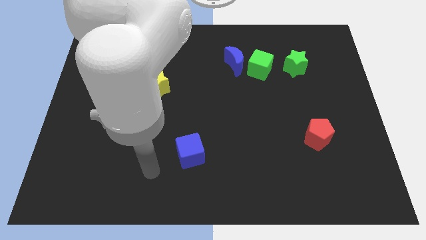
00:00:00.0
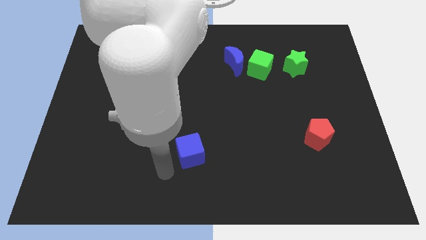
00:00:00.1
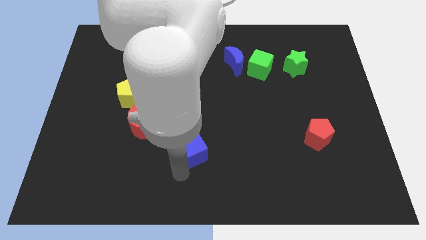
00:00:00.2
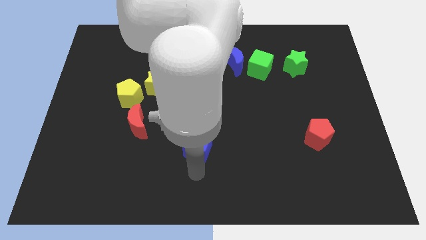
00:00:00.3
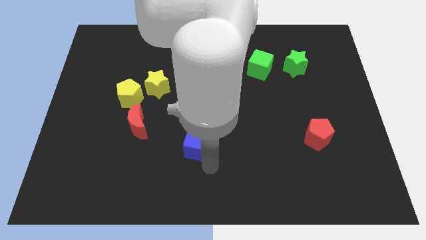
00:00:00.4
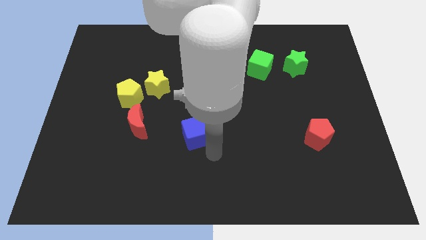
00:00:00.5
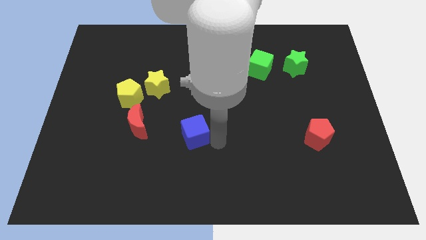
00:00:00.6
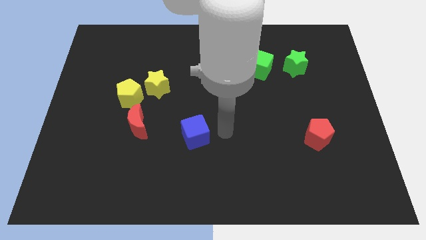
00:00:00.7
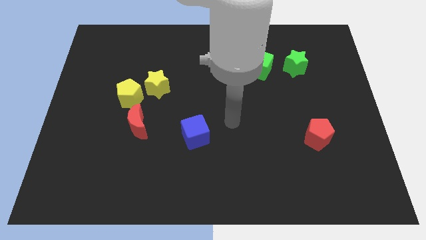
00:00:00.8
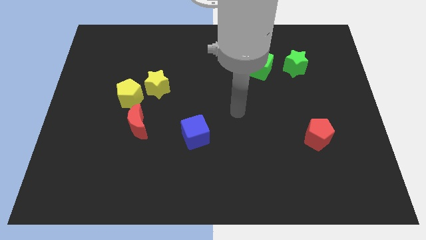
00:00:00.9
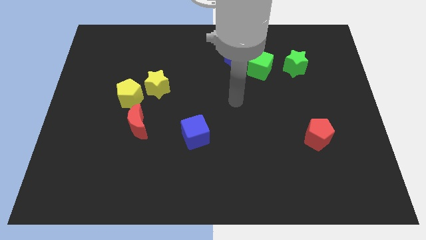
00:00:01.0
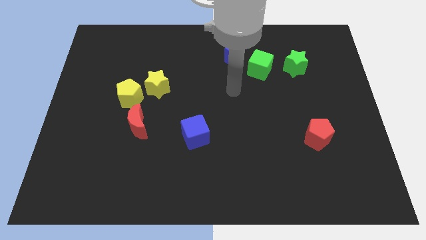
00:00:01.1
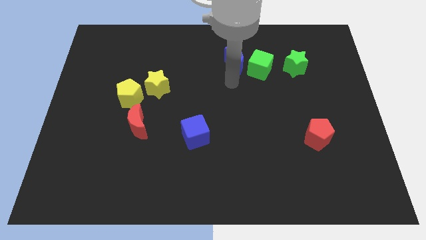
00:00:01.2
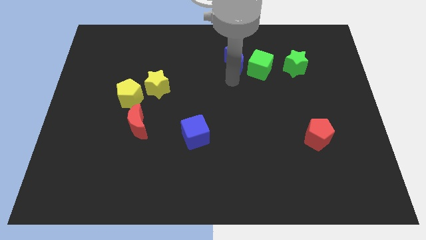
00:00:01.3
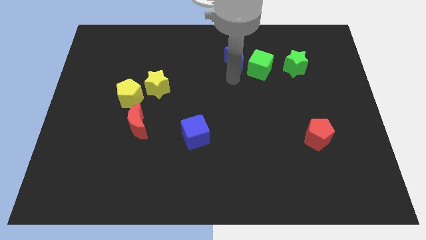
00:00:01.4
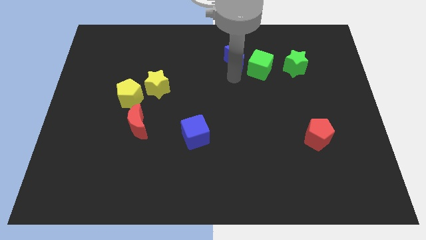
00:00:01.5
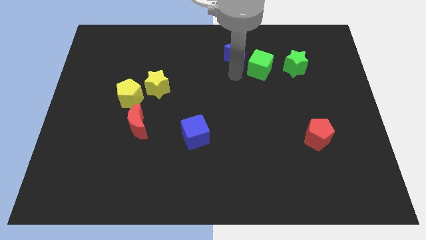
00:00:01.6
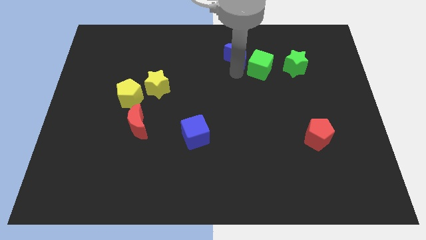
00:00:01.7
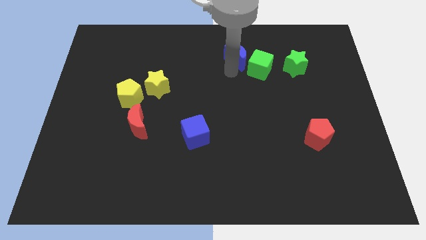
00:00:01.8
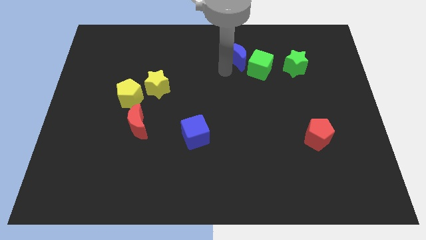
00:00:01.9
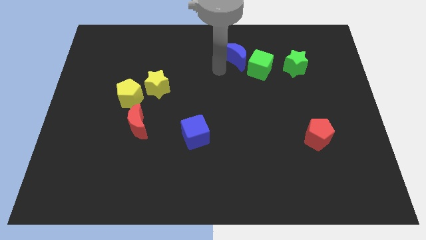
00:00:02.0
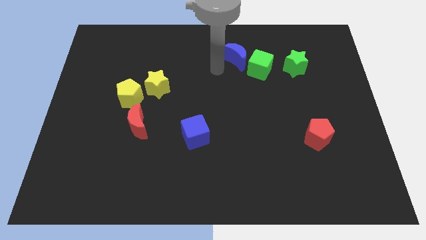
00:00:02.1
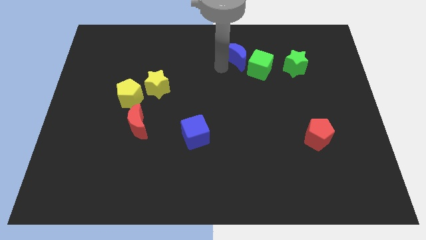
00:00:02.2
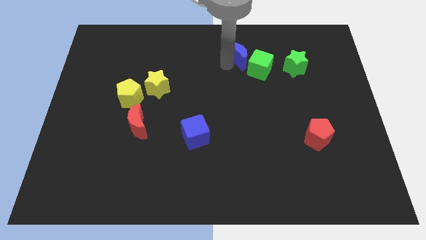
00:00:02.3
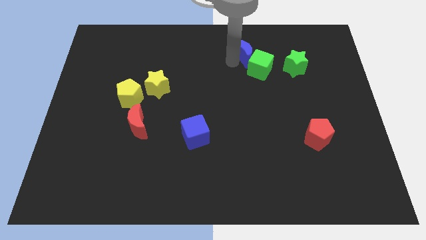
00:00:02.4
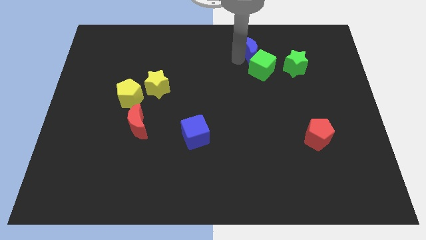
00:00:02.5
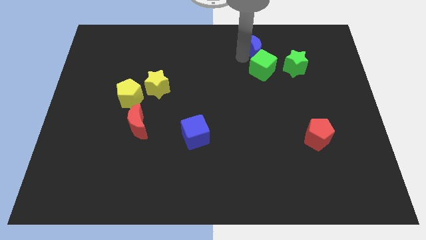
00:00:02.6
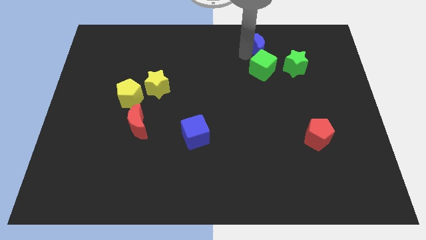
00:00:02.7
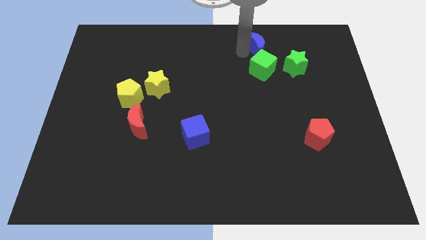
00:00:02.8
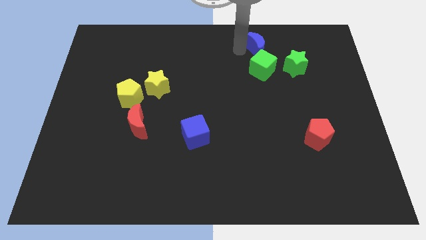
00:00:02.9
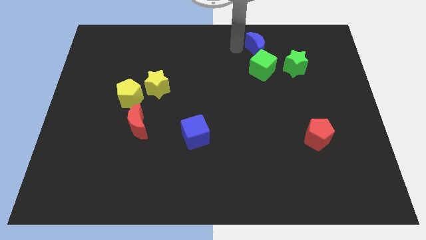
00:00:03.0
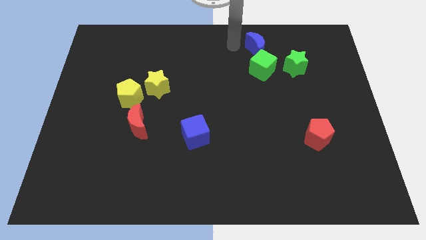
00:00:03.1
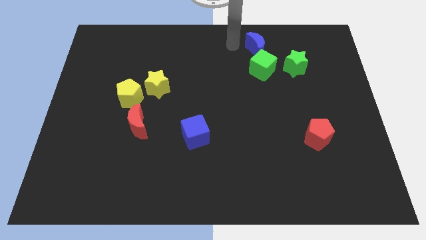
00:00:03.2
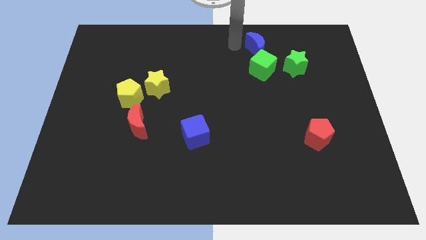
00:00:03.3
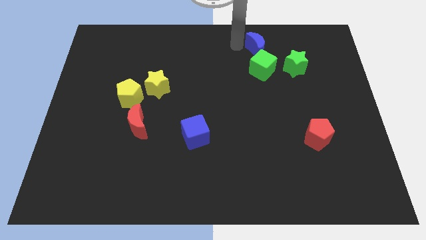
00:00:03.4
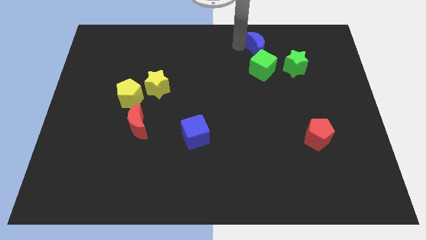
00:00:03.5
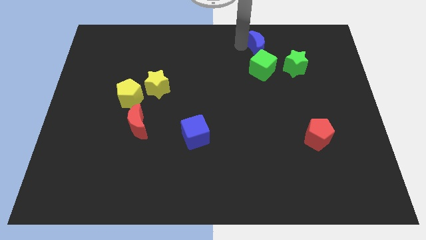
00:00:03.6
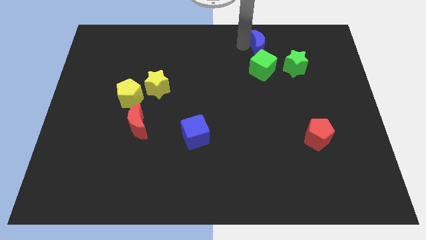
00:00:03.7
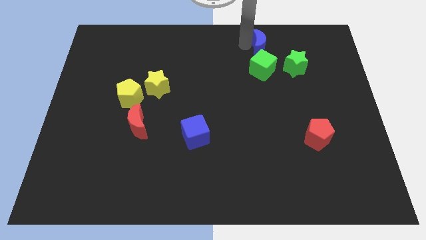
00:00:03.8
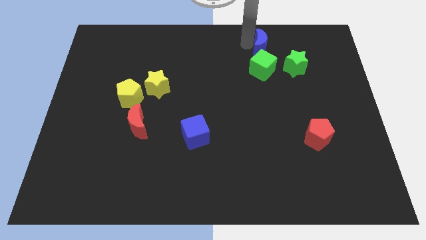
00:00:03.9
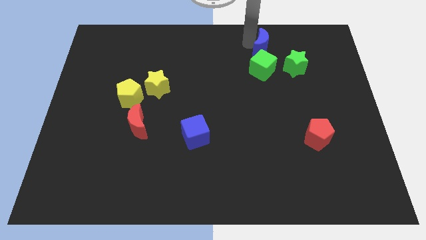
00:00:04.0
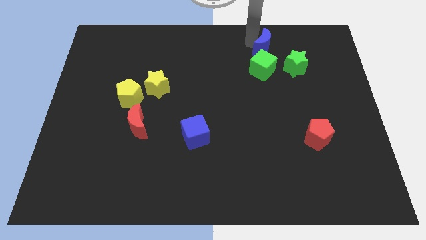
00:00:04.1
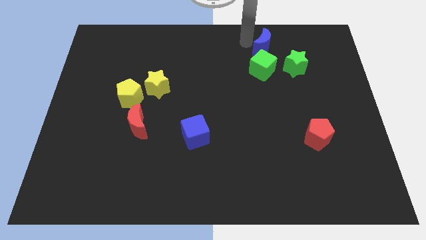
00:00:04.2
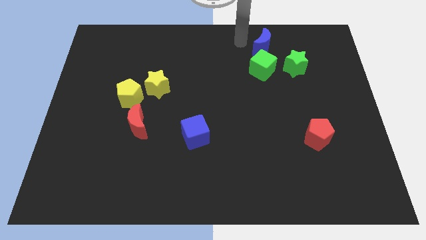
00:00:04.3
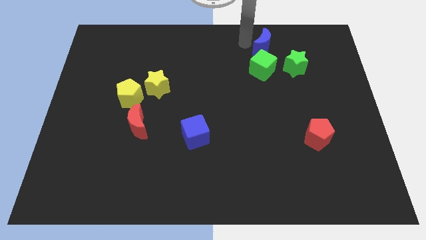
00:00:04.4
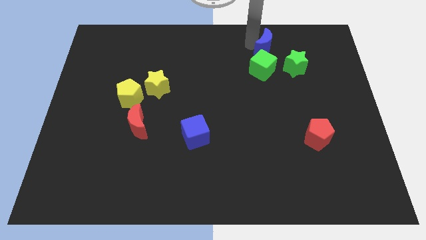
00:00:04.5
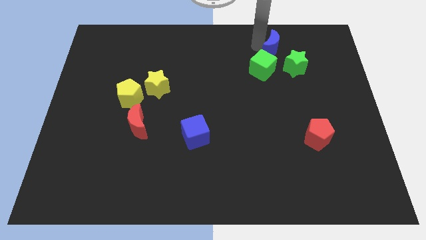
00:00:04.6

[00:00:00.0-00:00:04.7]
move the blue moon to the right a bit

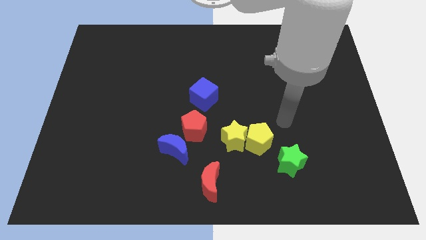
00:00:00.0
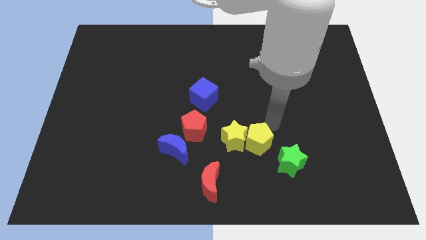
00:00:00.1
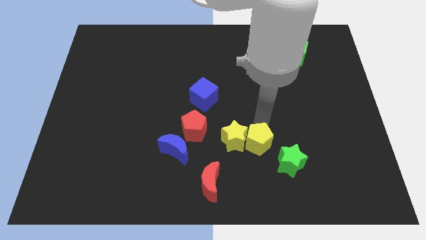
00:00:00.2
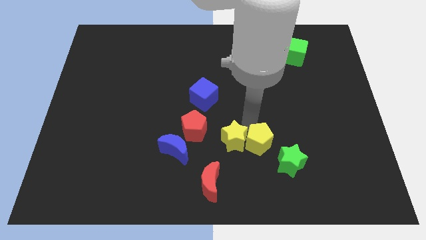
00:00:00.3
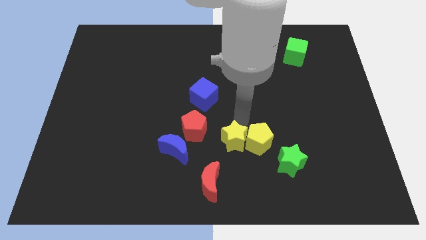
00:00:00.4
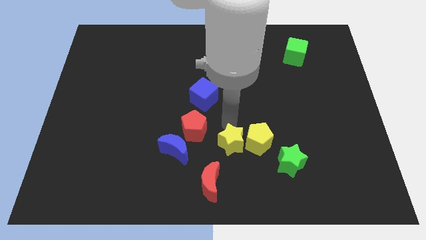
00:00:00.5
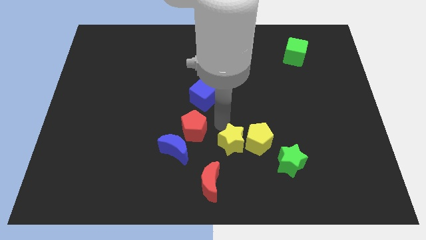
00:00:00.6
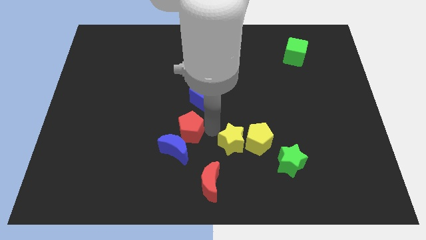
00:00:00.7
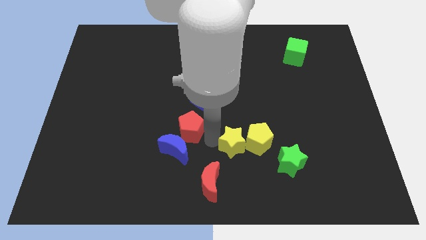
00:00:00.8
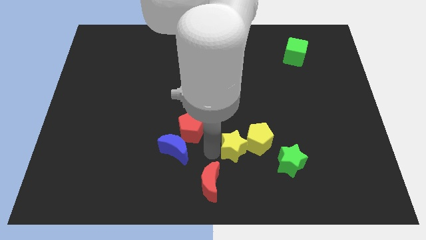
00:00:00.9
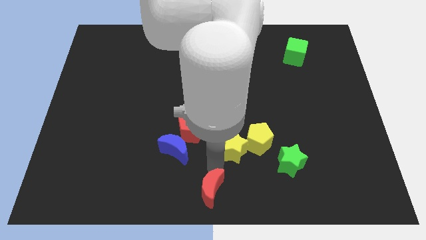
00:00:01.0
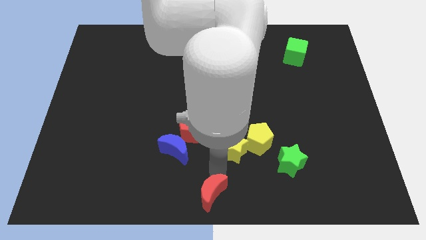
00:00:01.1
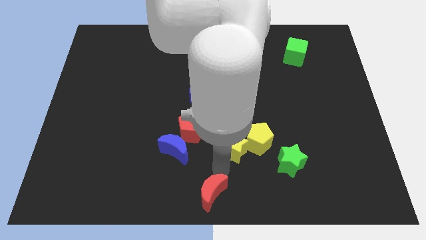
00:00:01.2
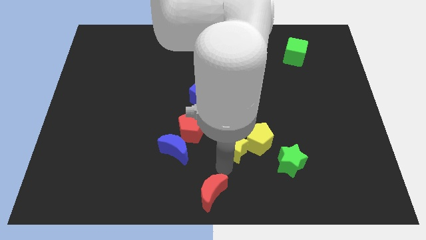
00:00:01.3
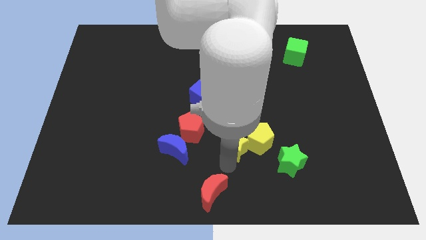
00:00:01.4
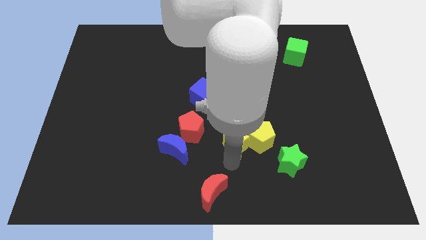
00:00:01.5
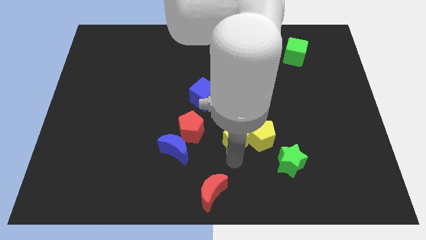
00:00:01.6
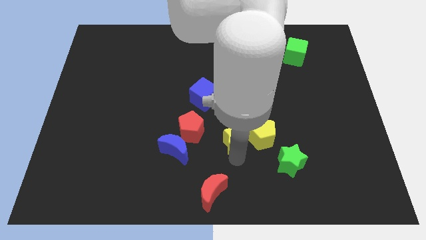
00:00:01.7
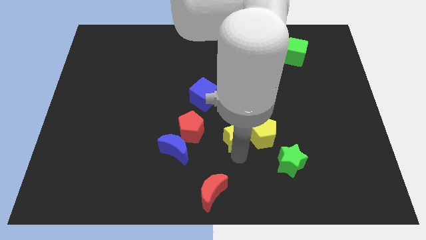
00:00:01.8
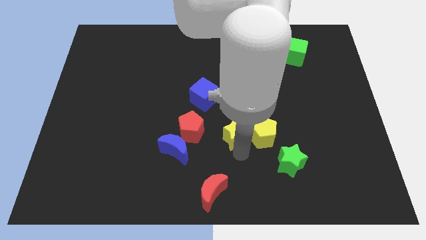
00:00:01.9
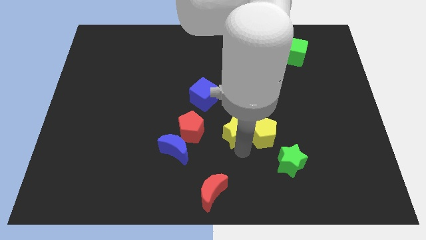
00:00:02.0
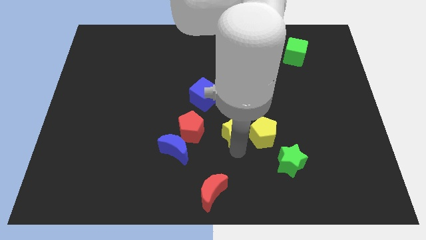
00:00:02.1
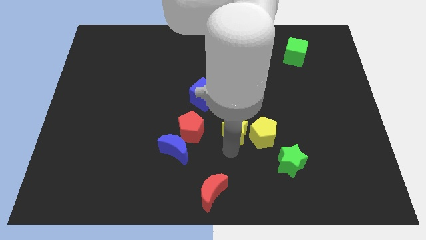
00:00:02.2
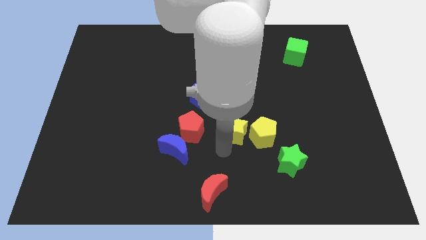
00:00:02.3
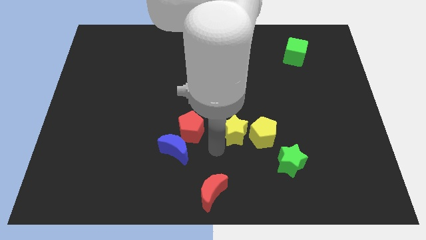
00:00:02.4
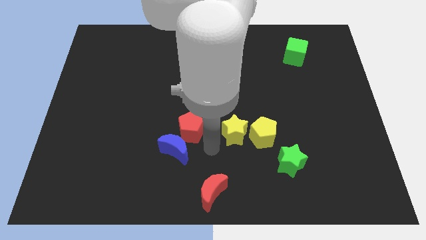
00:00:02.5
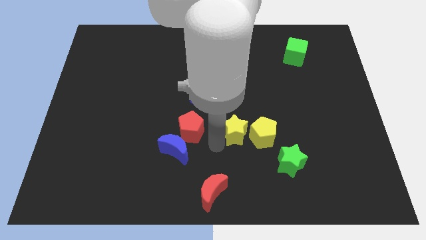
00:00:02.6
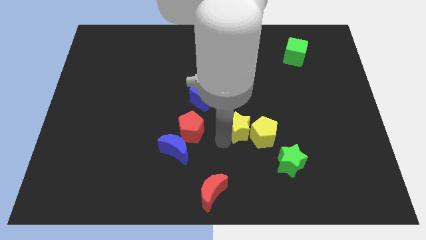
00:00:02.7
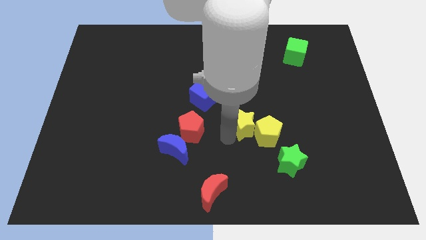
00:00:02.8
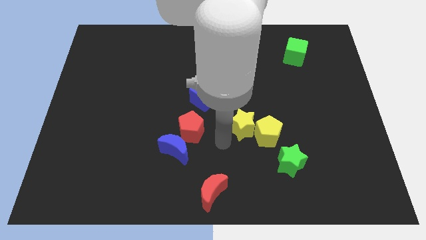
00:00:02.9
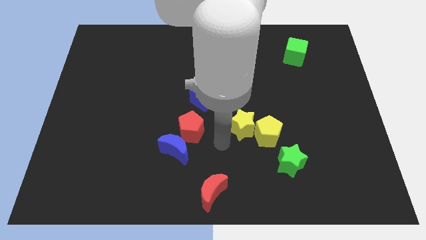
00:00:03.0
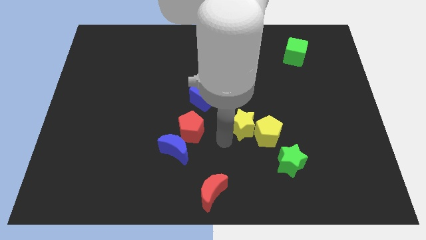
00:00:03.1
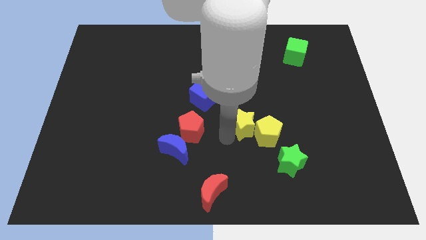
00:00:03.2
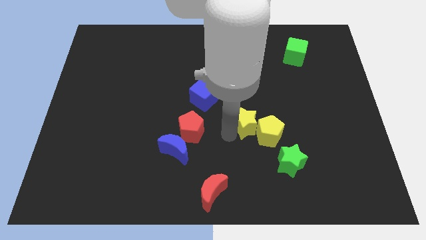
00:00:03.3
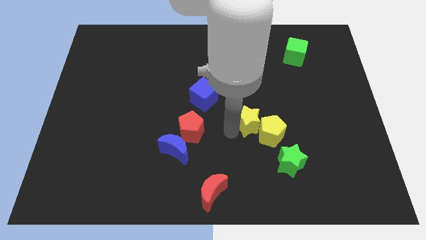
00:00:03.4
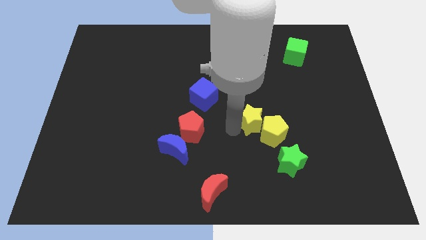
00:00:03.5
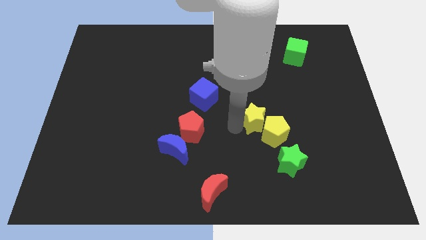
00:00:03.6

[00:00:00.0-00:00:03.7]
push the yellow star a bit up and then to the right
